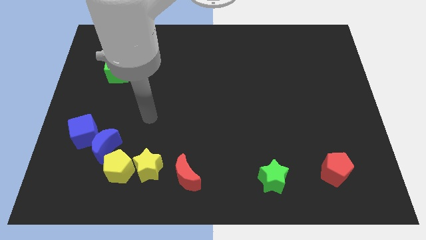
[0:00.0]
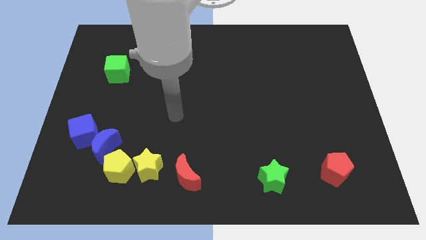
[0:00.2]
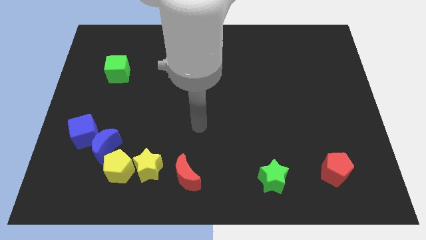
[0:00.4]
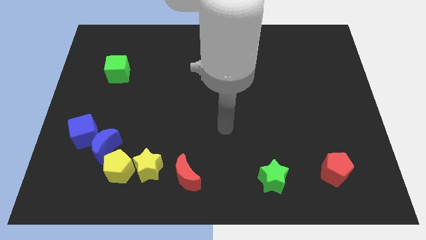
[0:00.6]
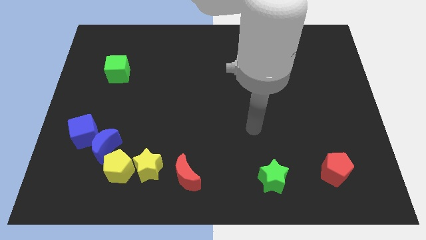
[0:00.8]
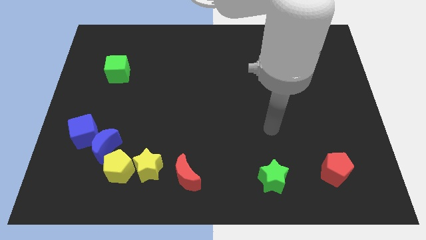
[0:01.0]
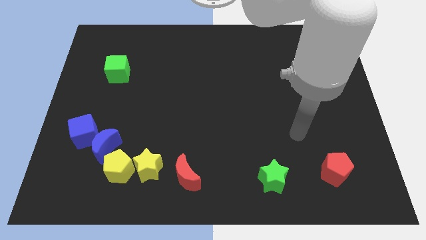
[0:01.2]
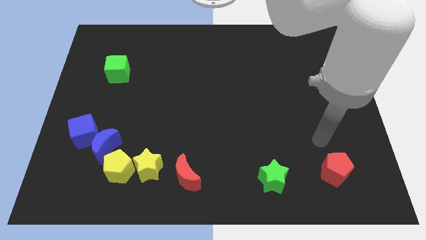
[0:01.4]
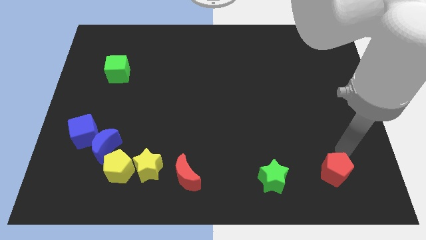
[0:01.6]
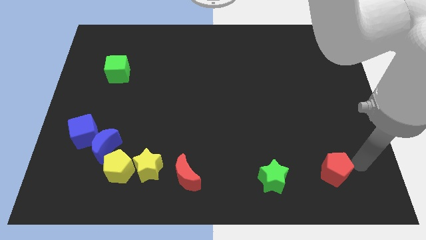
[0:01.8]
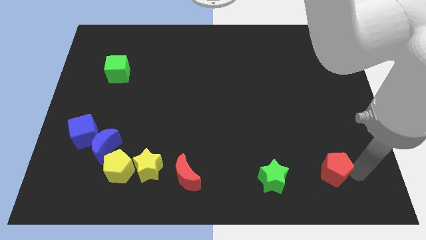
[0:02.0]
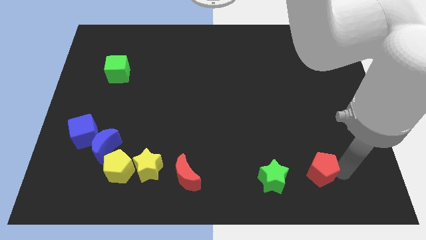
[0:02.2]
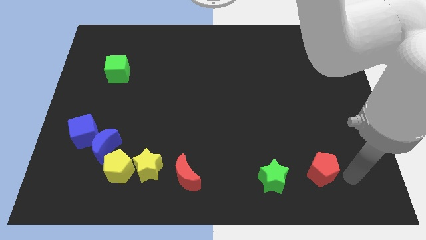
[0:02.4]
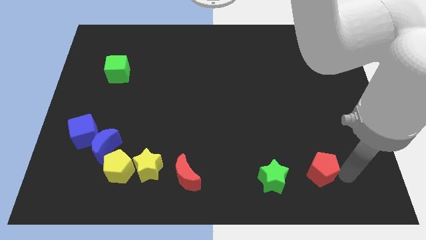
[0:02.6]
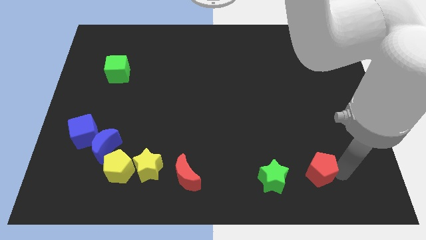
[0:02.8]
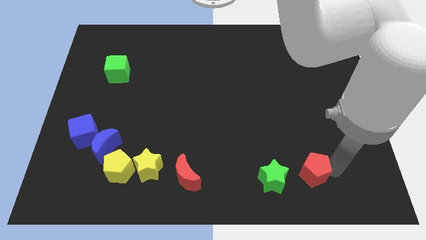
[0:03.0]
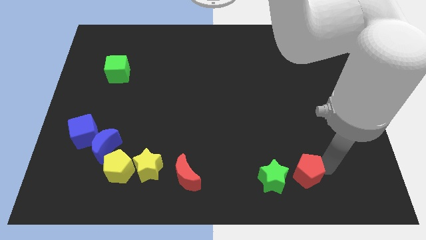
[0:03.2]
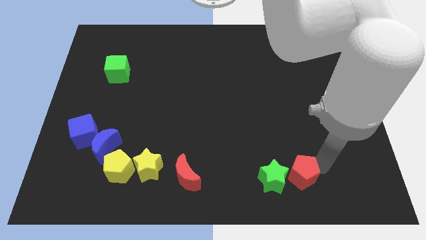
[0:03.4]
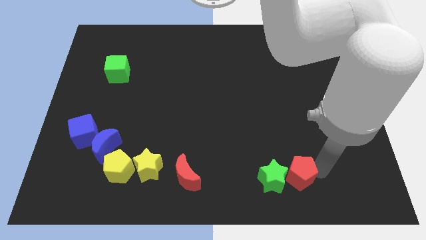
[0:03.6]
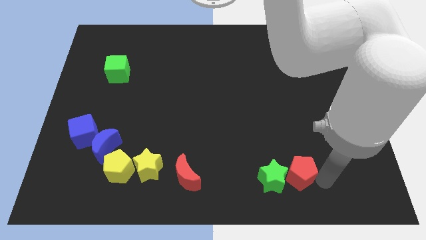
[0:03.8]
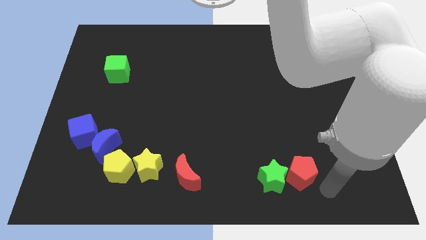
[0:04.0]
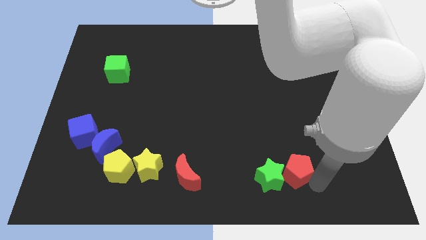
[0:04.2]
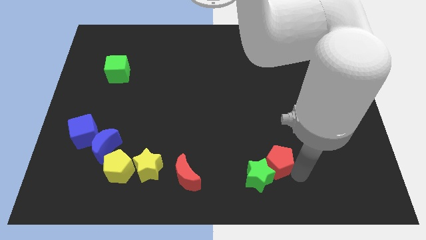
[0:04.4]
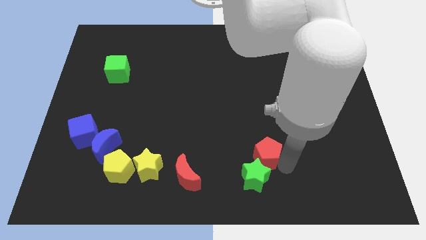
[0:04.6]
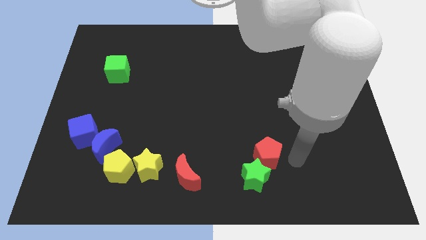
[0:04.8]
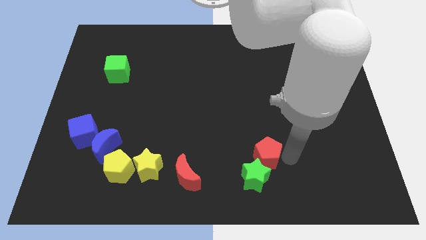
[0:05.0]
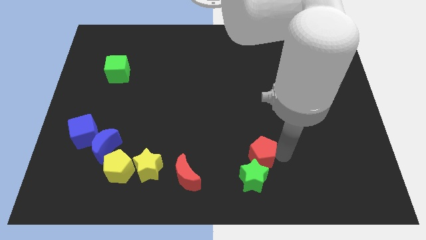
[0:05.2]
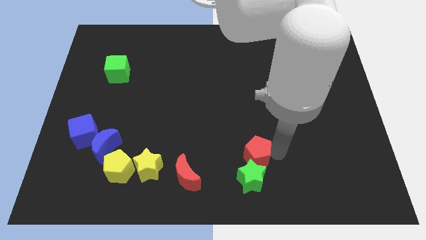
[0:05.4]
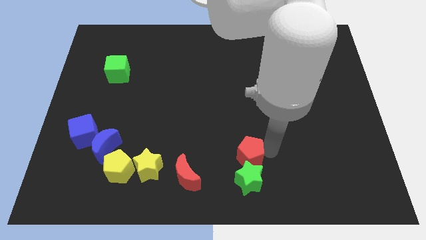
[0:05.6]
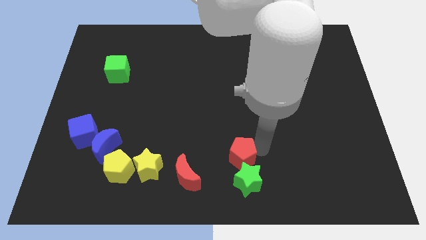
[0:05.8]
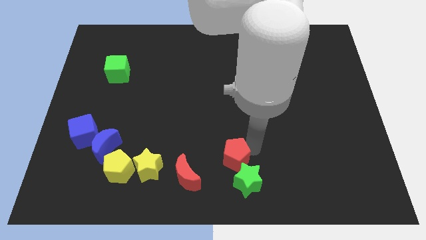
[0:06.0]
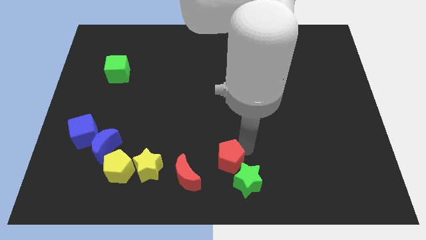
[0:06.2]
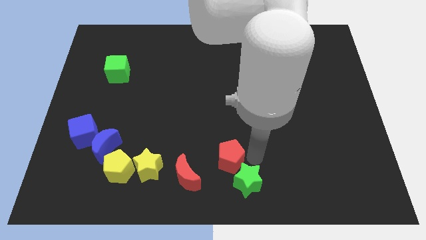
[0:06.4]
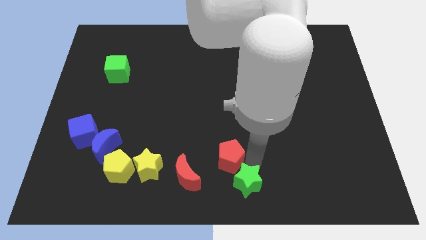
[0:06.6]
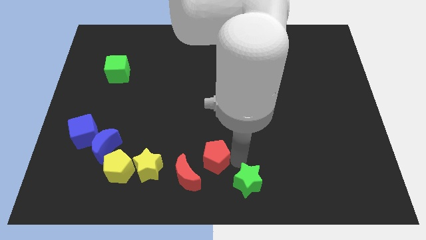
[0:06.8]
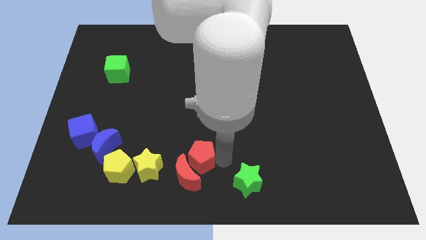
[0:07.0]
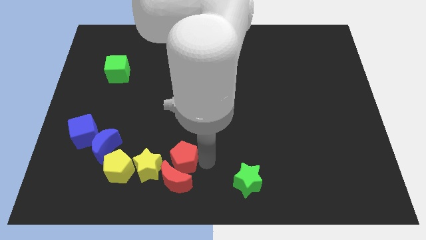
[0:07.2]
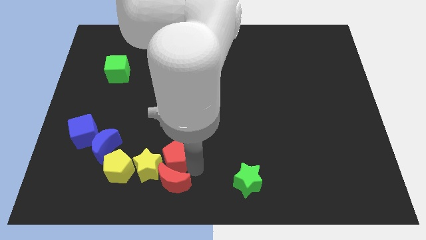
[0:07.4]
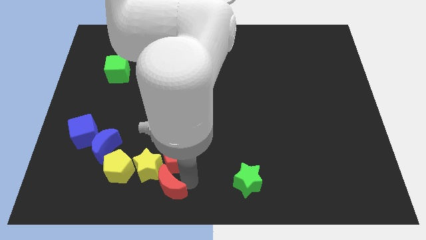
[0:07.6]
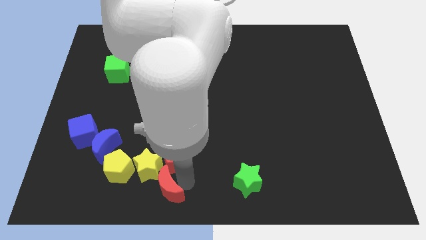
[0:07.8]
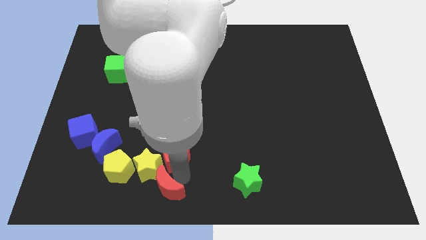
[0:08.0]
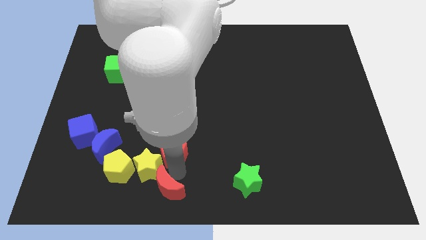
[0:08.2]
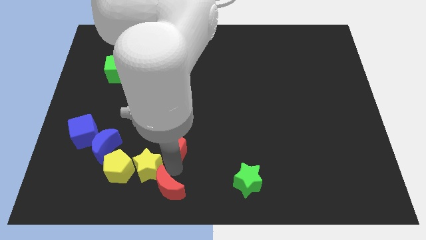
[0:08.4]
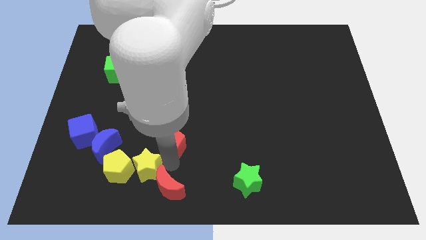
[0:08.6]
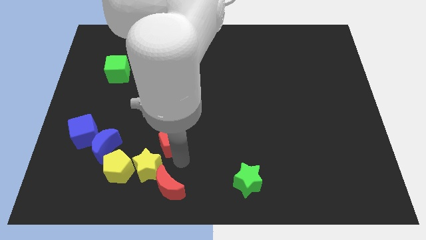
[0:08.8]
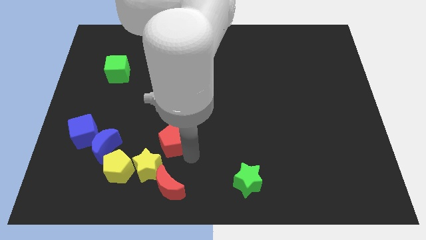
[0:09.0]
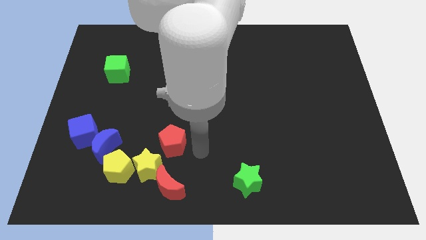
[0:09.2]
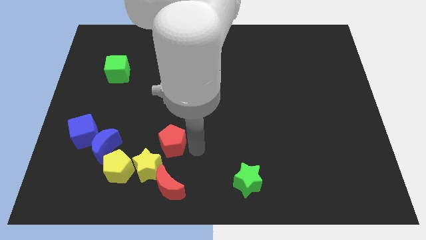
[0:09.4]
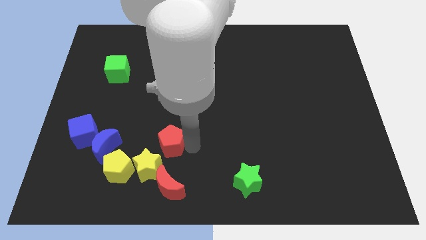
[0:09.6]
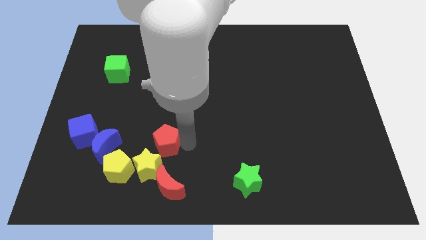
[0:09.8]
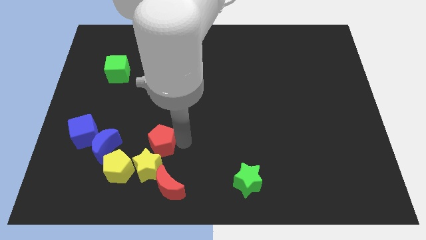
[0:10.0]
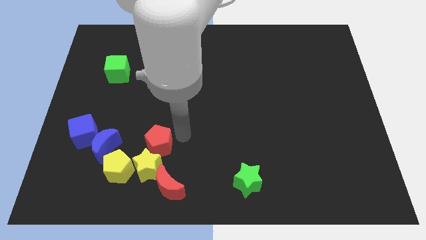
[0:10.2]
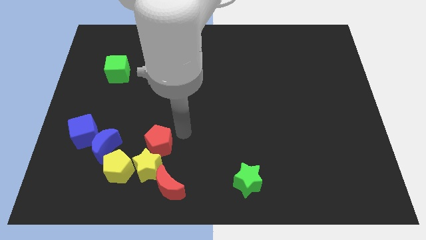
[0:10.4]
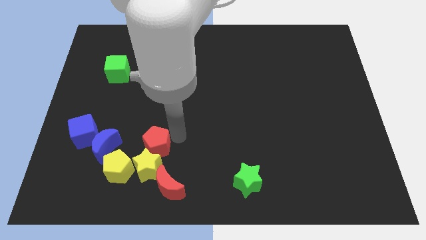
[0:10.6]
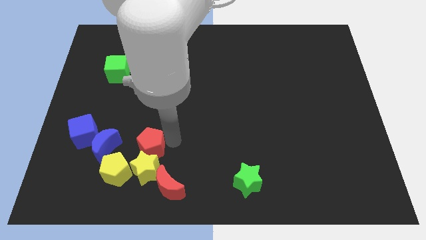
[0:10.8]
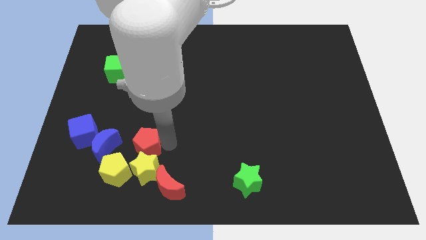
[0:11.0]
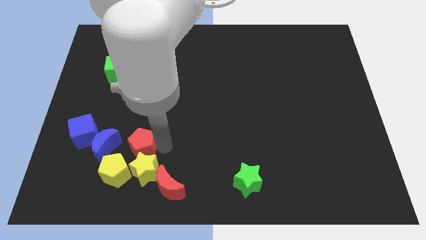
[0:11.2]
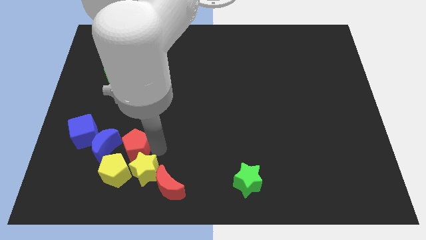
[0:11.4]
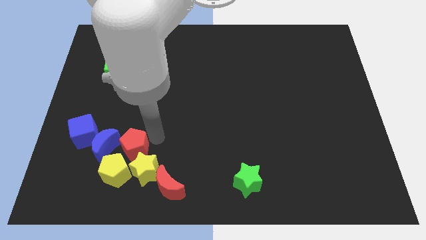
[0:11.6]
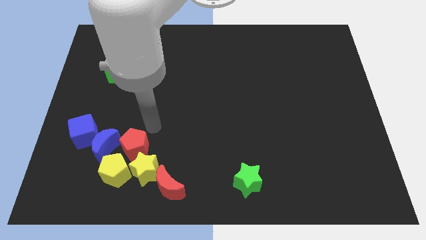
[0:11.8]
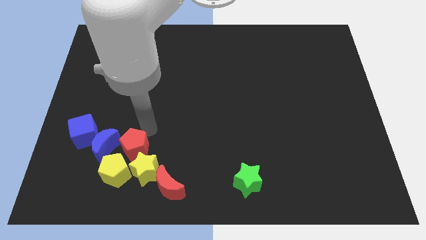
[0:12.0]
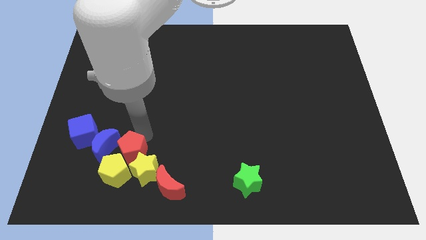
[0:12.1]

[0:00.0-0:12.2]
slide the red pentagon to the yellow pentagon

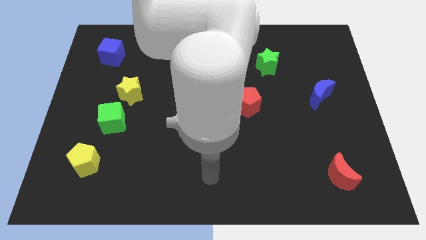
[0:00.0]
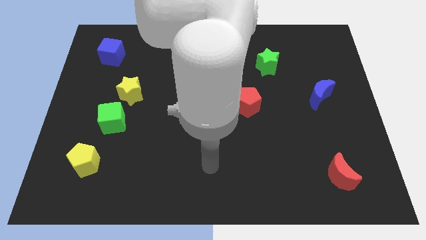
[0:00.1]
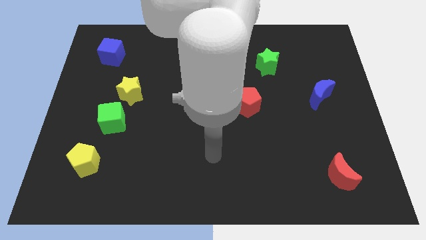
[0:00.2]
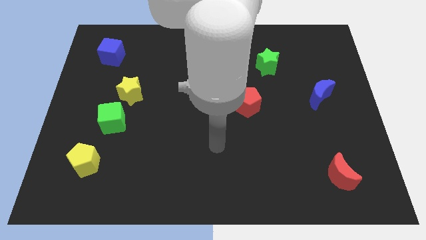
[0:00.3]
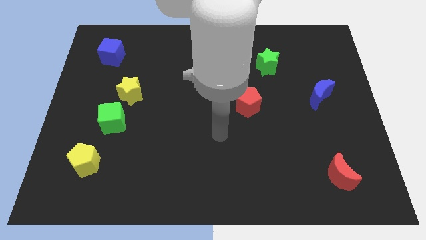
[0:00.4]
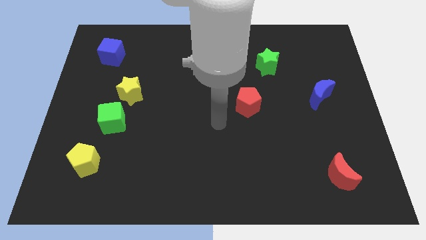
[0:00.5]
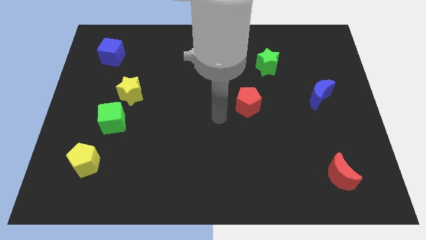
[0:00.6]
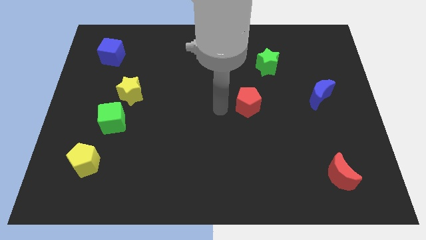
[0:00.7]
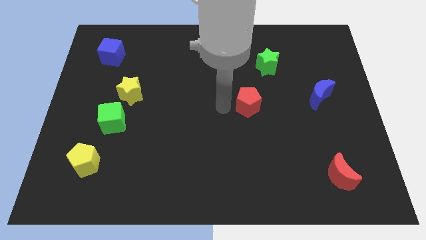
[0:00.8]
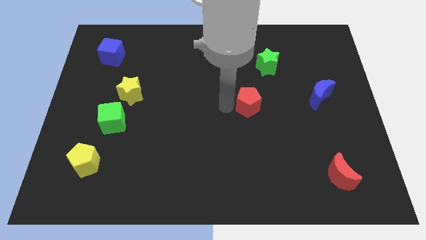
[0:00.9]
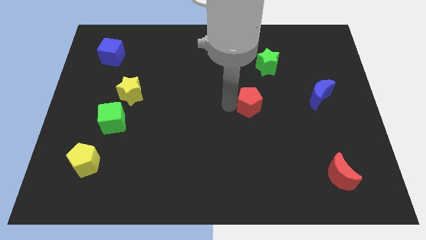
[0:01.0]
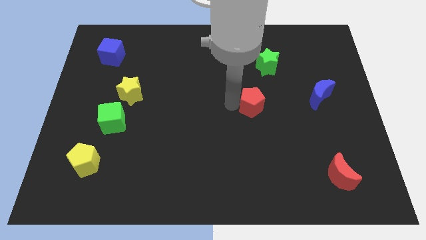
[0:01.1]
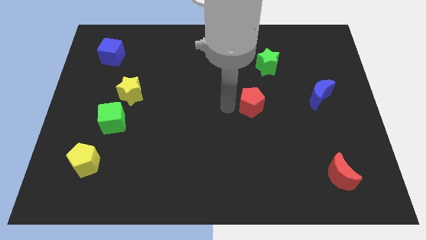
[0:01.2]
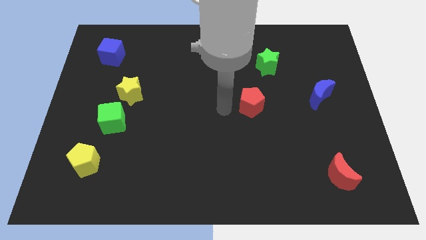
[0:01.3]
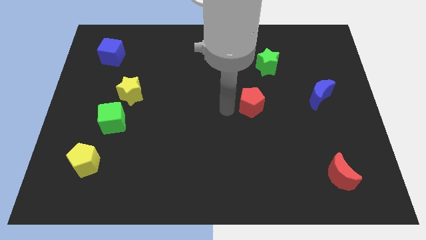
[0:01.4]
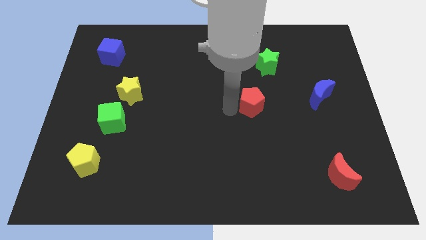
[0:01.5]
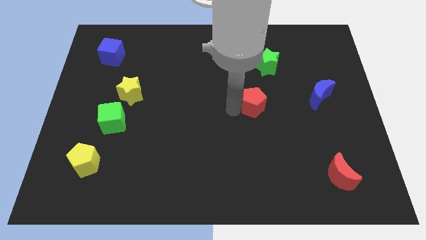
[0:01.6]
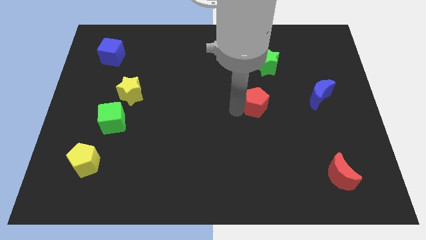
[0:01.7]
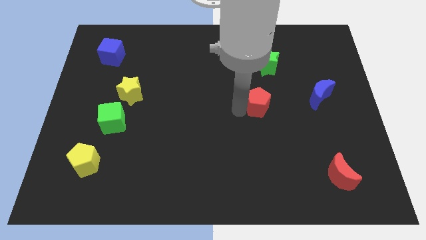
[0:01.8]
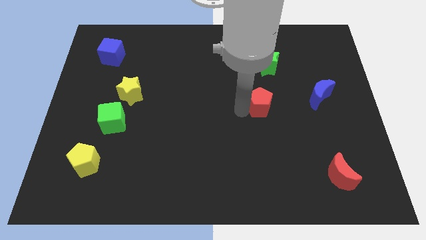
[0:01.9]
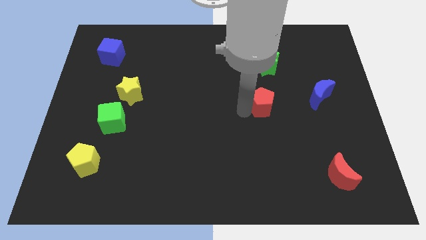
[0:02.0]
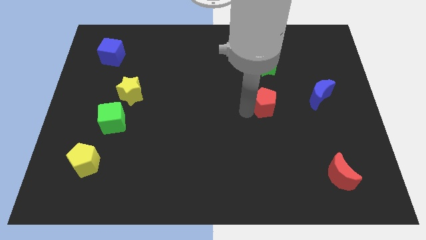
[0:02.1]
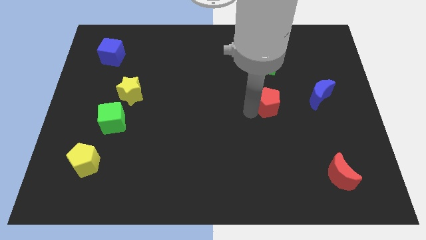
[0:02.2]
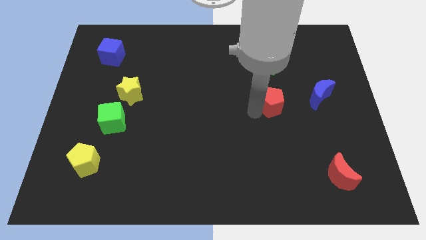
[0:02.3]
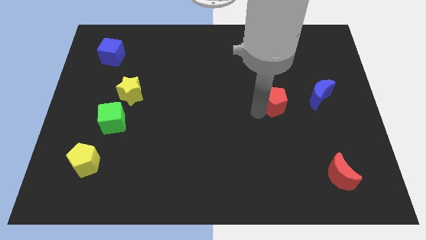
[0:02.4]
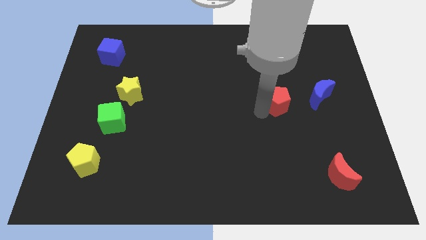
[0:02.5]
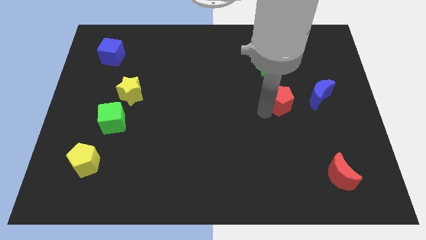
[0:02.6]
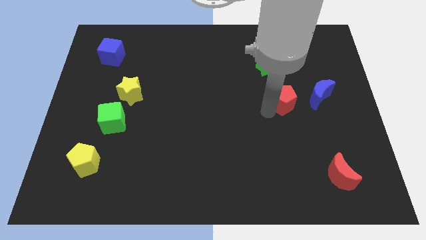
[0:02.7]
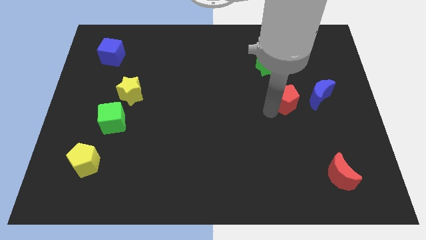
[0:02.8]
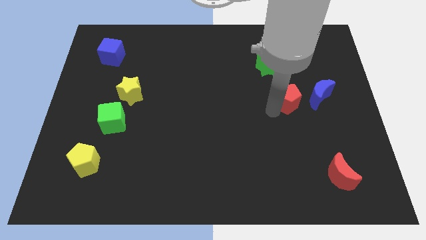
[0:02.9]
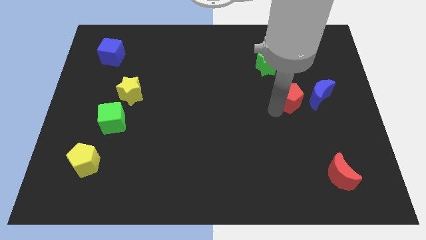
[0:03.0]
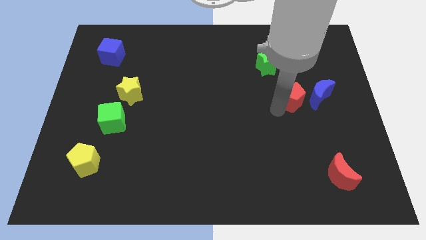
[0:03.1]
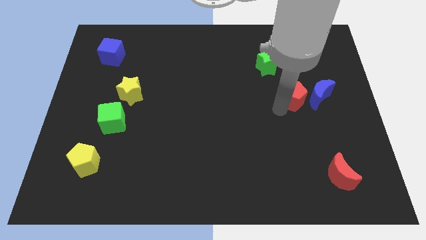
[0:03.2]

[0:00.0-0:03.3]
move the red pentagon close to the blue moon
